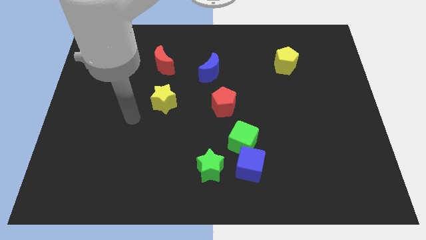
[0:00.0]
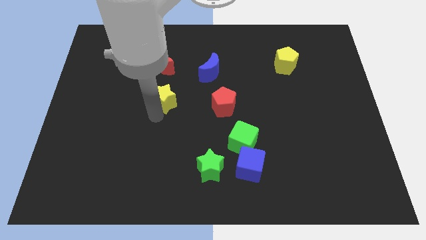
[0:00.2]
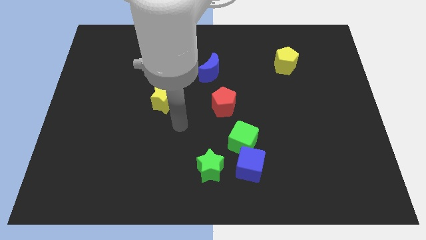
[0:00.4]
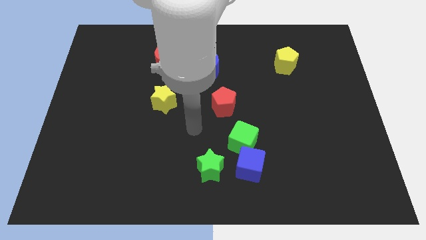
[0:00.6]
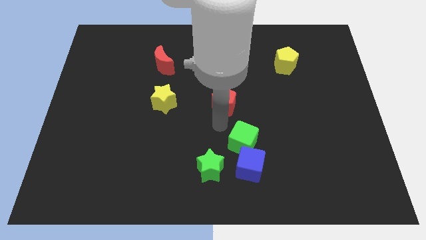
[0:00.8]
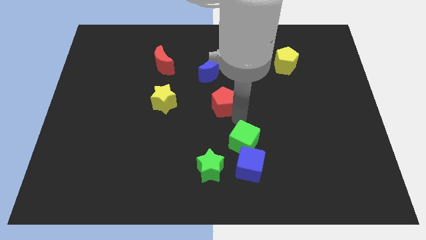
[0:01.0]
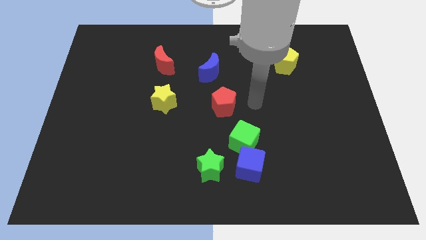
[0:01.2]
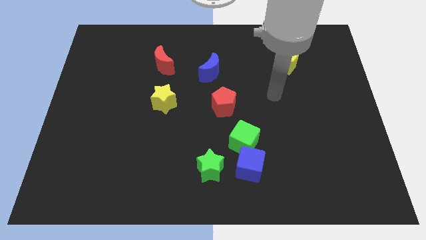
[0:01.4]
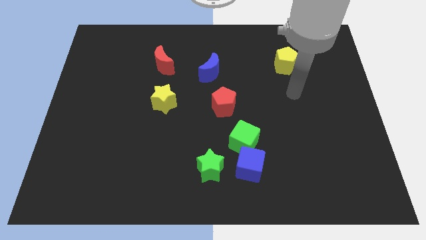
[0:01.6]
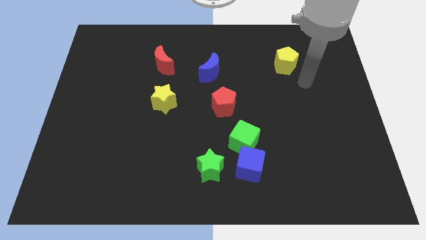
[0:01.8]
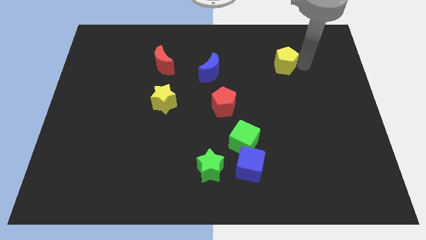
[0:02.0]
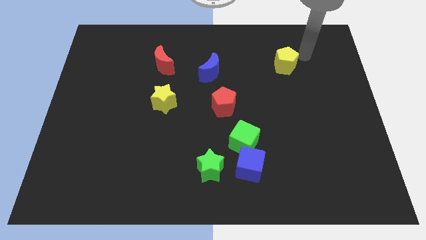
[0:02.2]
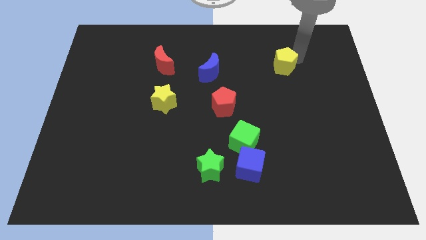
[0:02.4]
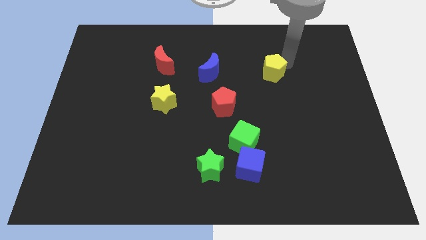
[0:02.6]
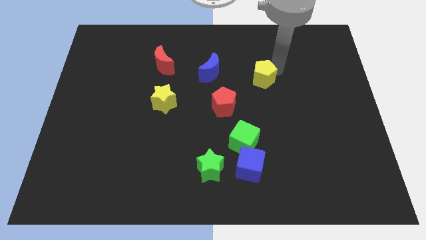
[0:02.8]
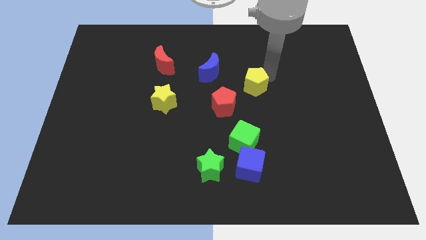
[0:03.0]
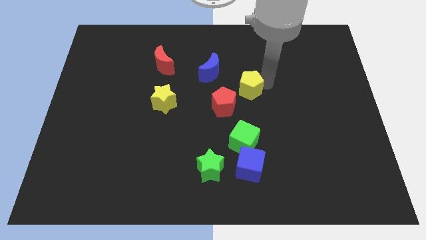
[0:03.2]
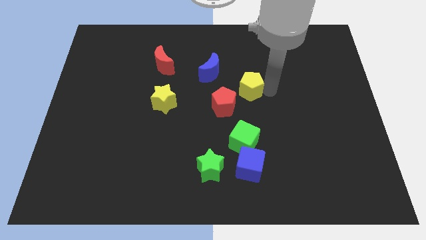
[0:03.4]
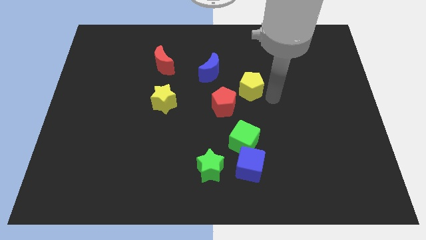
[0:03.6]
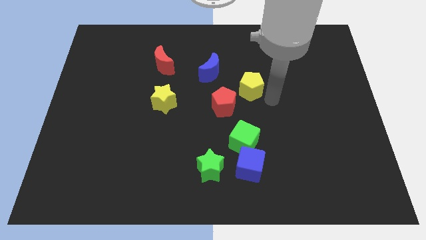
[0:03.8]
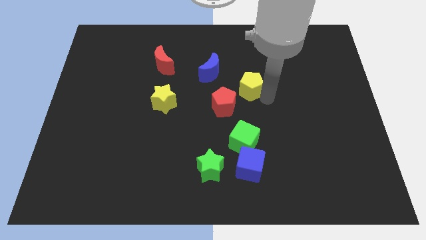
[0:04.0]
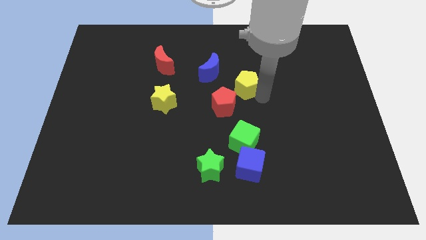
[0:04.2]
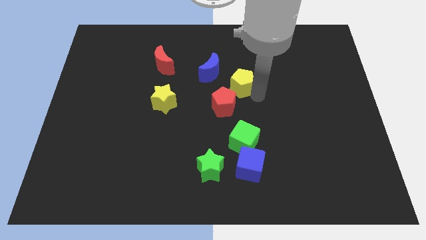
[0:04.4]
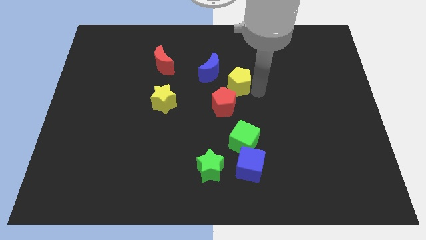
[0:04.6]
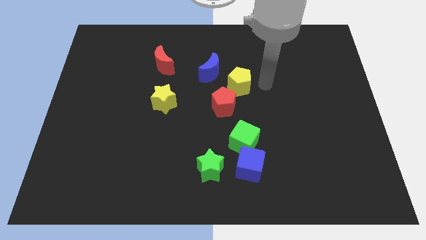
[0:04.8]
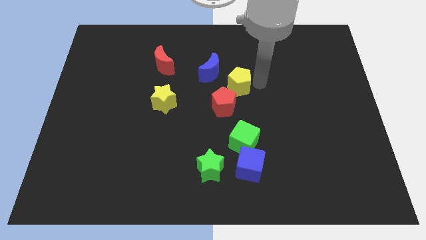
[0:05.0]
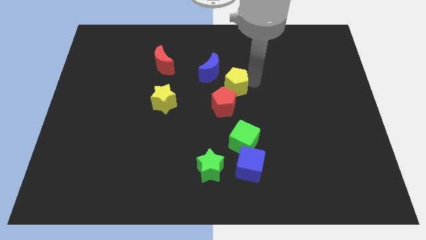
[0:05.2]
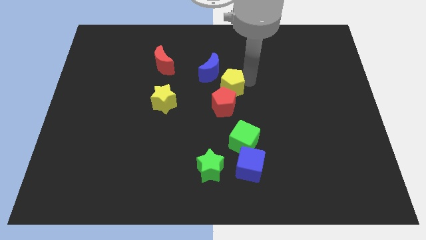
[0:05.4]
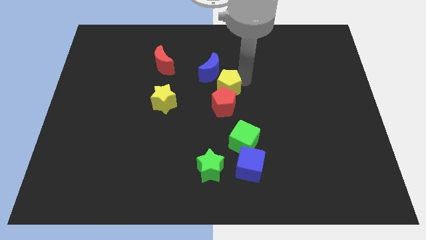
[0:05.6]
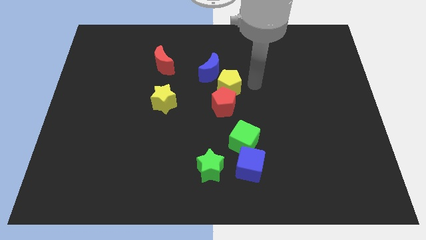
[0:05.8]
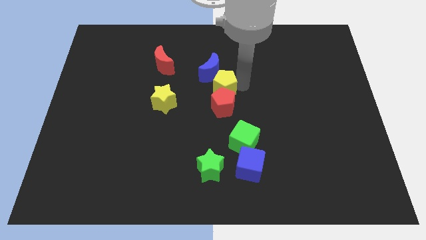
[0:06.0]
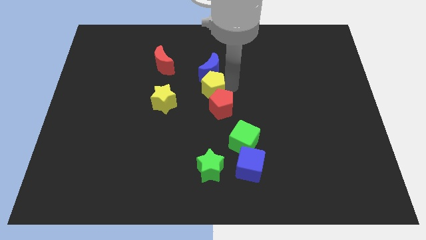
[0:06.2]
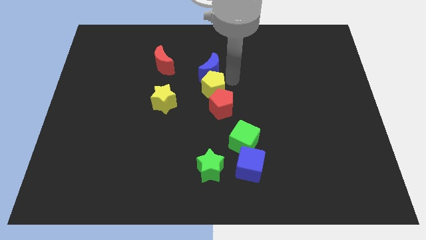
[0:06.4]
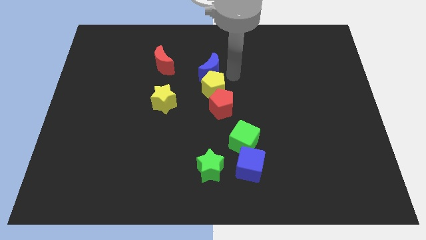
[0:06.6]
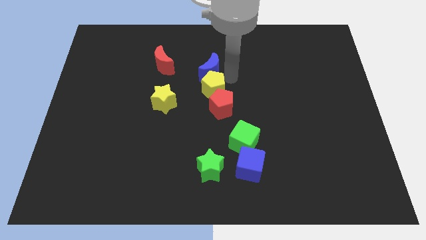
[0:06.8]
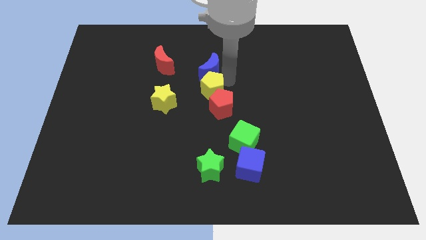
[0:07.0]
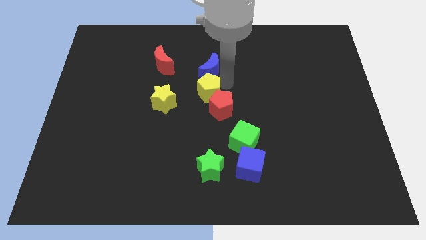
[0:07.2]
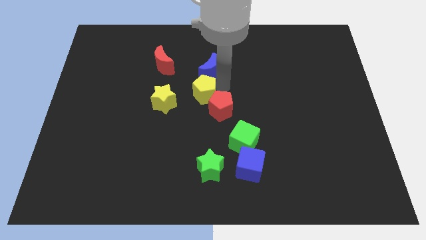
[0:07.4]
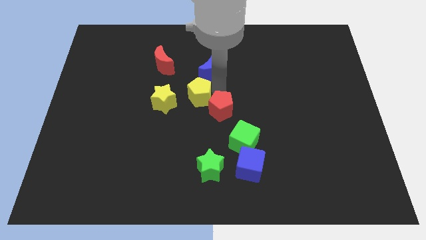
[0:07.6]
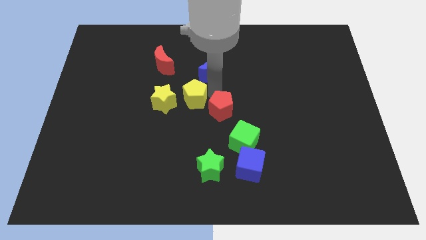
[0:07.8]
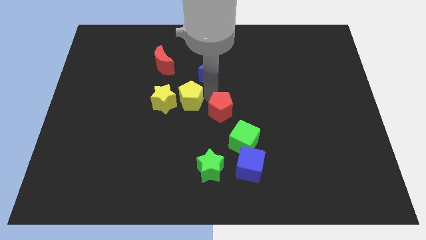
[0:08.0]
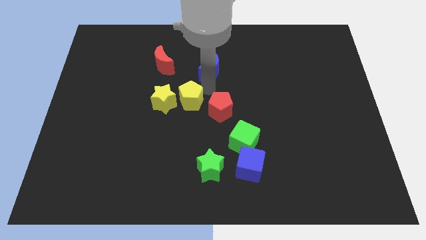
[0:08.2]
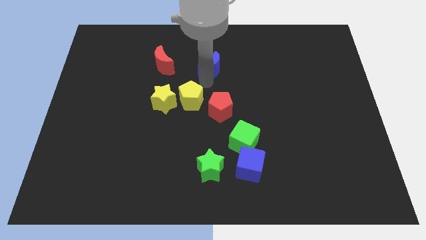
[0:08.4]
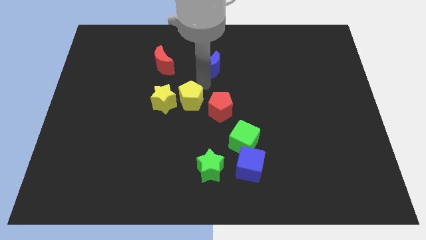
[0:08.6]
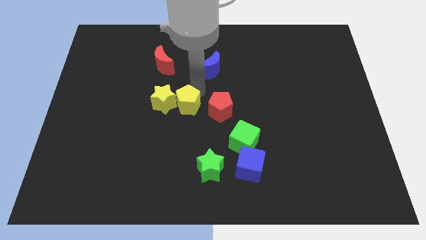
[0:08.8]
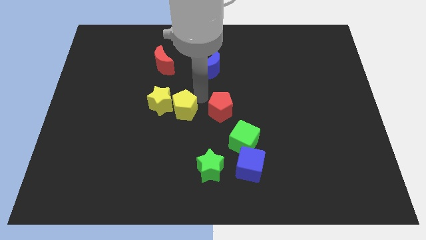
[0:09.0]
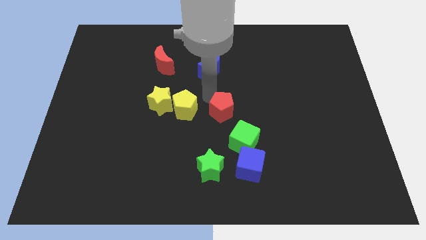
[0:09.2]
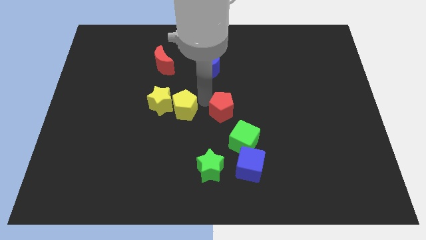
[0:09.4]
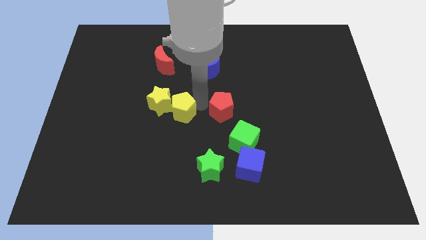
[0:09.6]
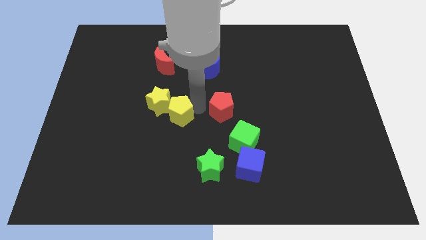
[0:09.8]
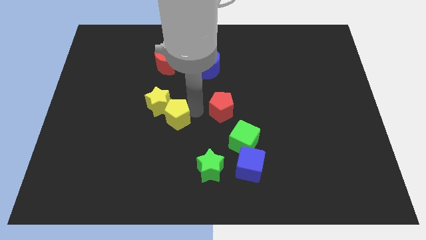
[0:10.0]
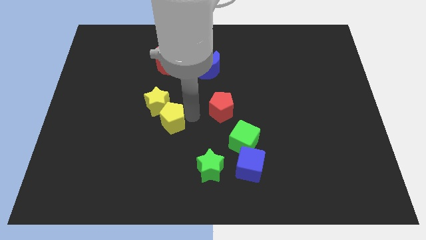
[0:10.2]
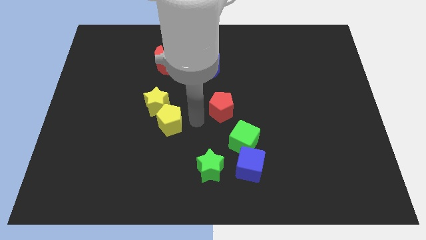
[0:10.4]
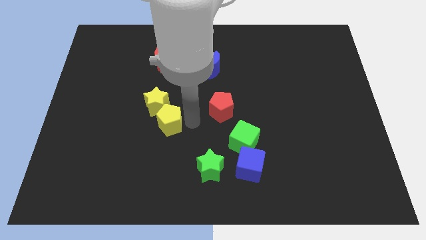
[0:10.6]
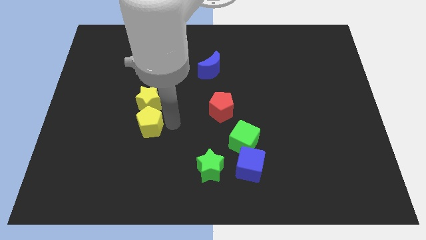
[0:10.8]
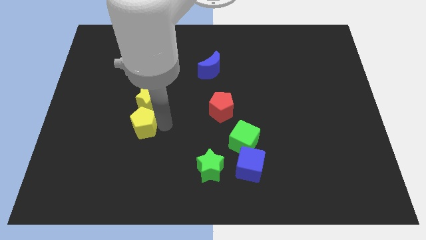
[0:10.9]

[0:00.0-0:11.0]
move the yellow pentagon to the bottom left of the yellow star

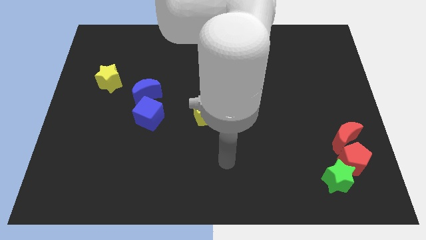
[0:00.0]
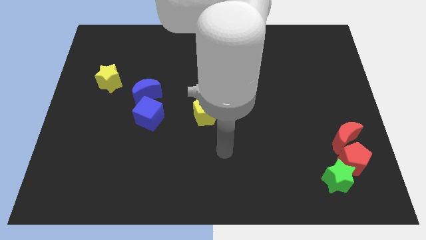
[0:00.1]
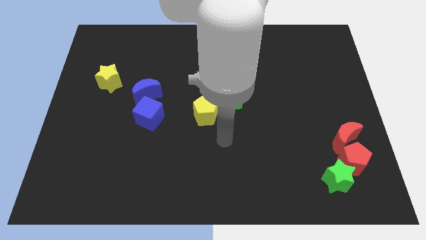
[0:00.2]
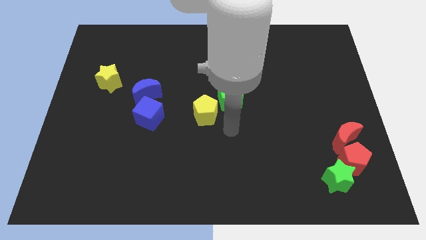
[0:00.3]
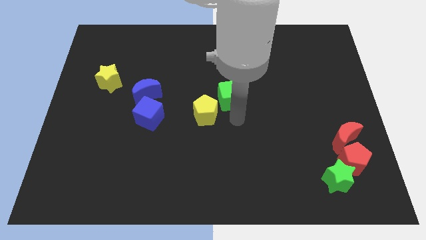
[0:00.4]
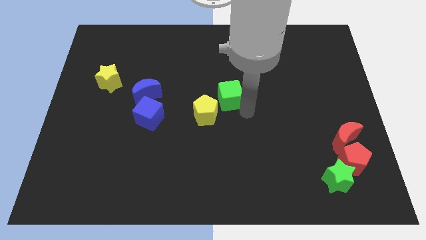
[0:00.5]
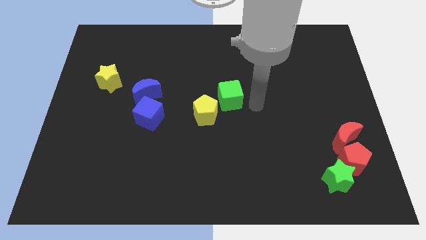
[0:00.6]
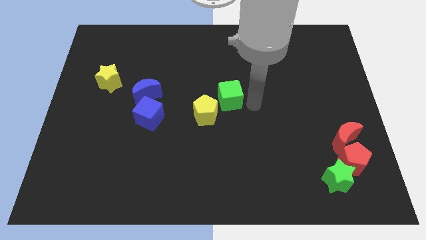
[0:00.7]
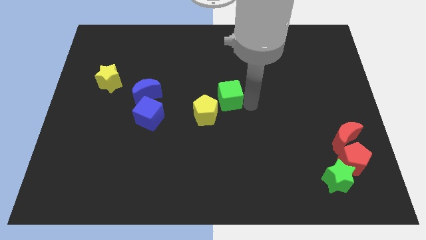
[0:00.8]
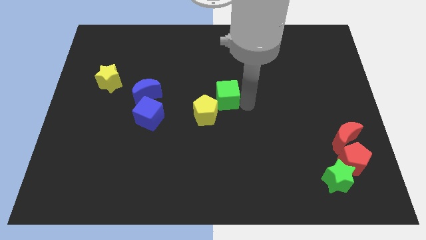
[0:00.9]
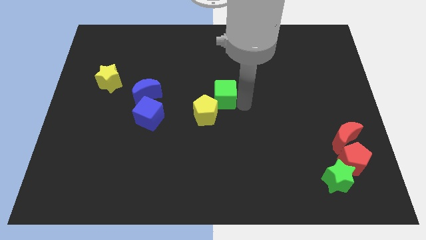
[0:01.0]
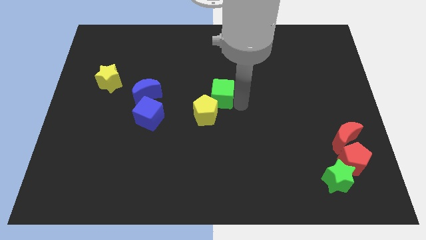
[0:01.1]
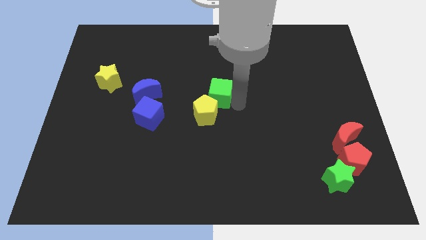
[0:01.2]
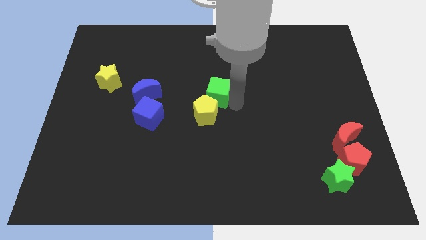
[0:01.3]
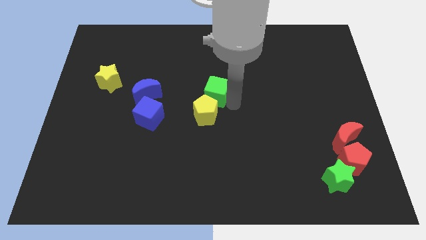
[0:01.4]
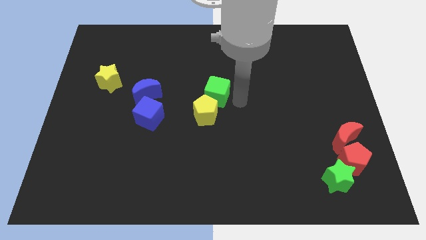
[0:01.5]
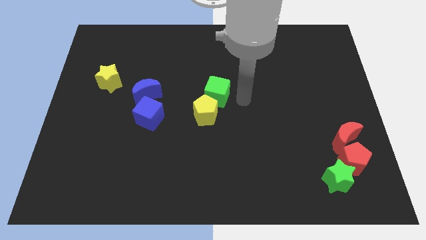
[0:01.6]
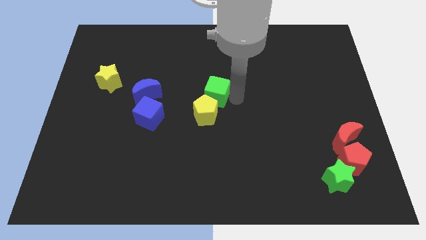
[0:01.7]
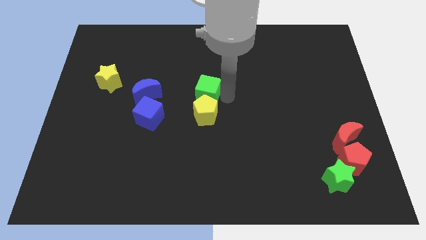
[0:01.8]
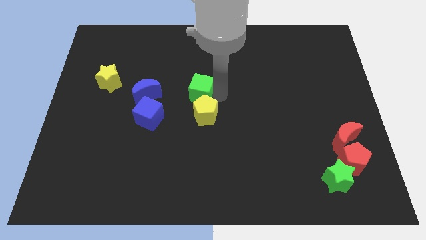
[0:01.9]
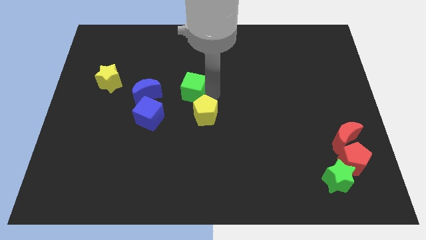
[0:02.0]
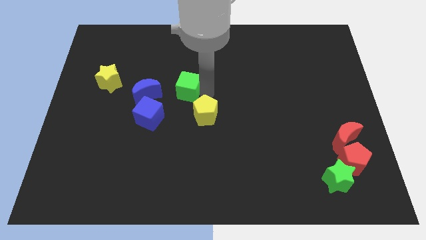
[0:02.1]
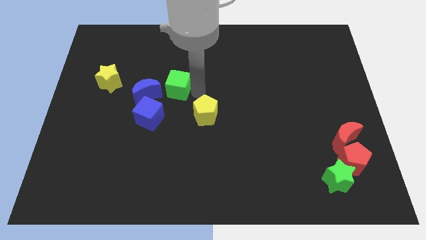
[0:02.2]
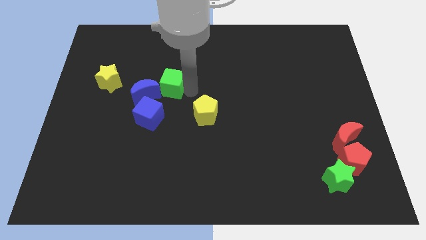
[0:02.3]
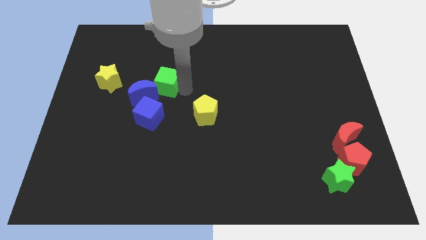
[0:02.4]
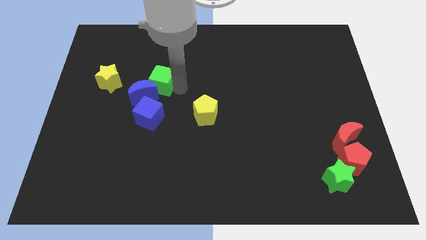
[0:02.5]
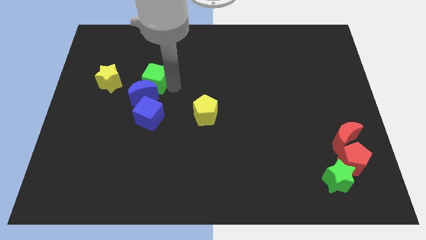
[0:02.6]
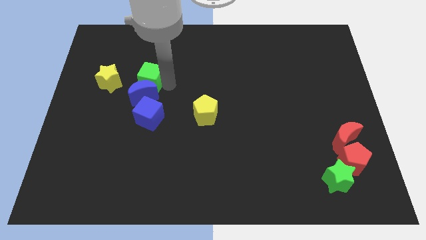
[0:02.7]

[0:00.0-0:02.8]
move the green cube to the top left side of the blue moon

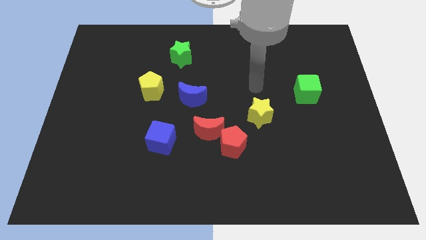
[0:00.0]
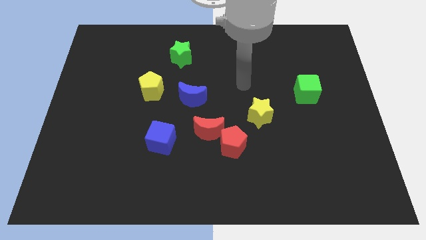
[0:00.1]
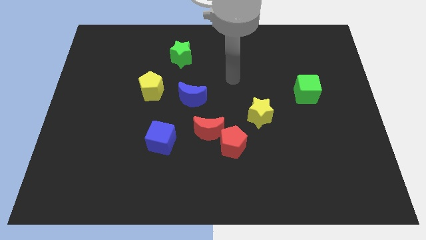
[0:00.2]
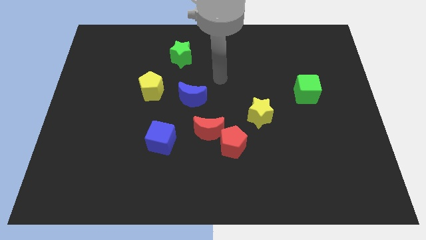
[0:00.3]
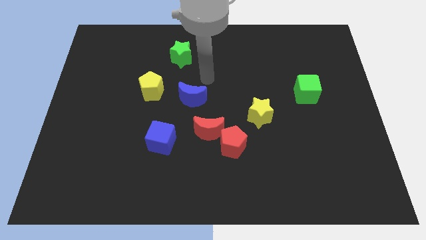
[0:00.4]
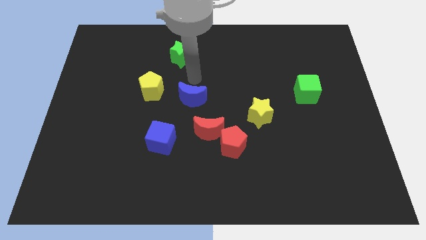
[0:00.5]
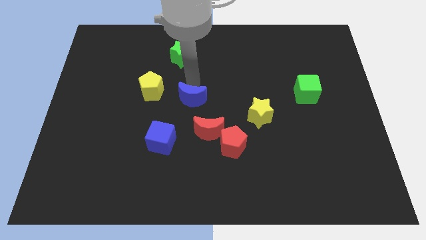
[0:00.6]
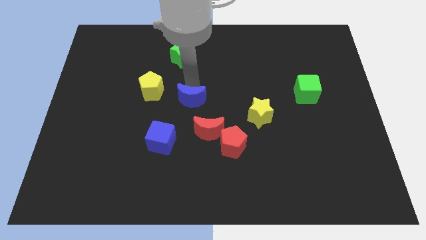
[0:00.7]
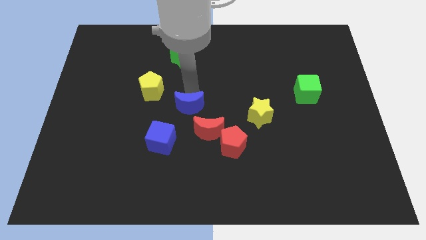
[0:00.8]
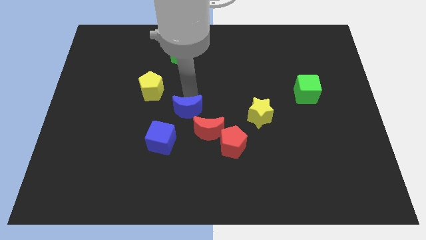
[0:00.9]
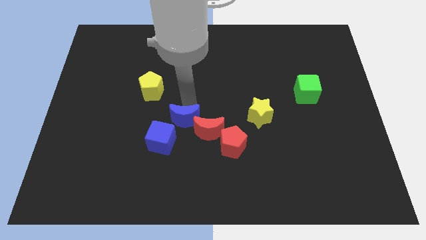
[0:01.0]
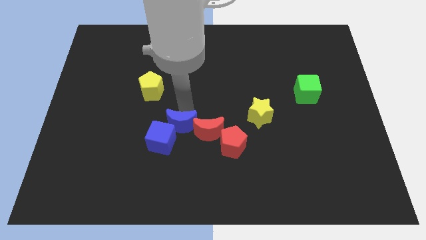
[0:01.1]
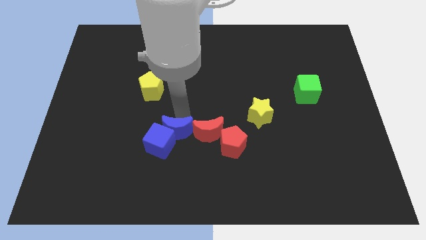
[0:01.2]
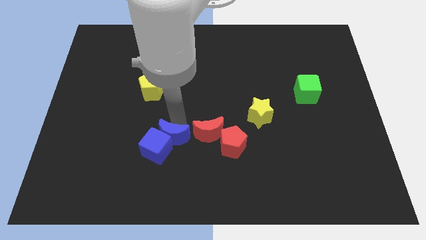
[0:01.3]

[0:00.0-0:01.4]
put the blue moon to the bottom left of the red moon
